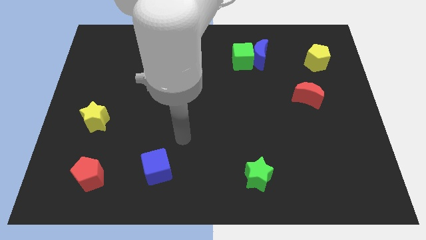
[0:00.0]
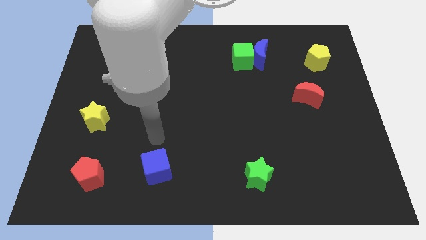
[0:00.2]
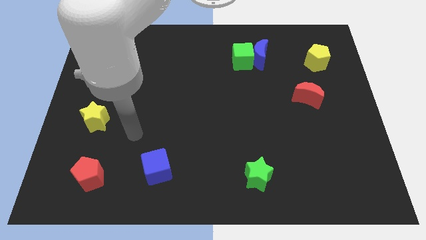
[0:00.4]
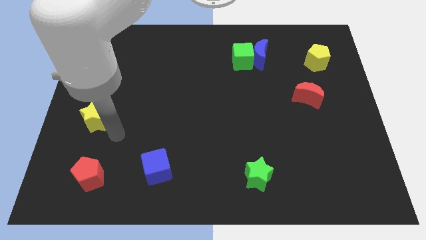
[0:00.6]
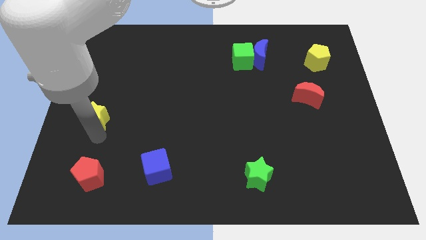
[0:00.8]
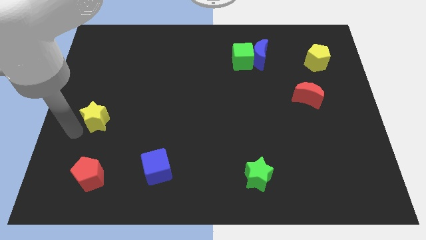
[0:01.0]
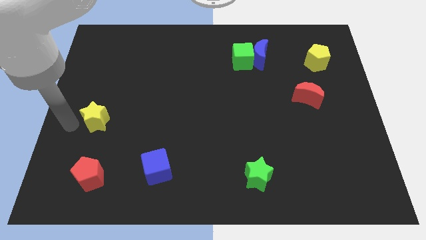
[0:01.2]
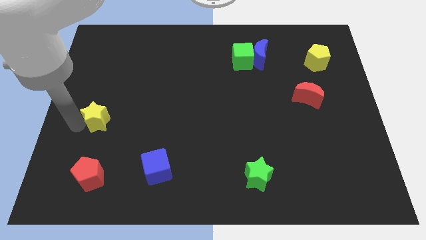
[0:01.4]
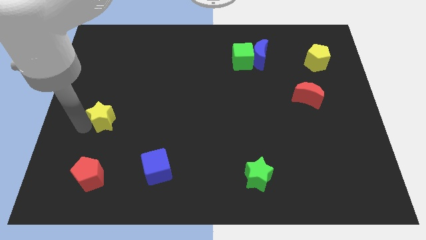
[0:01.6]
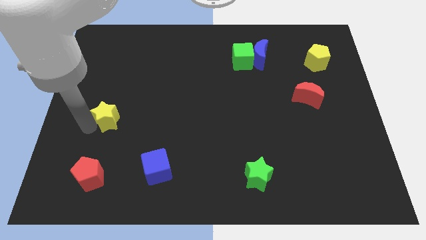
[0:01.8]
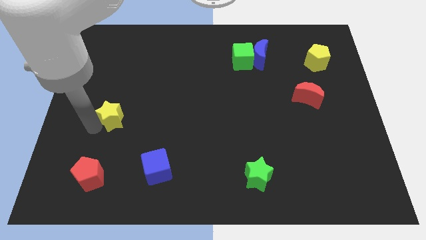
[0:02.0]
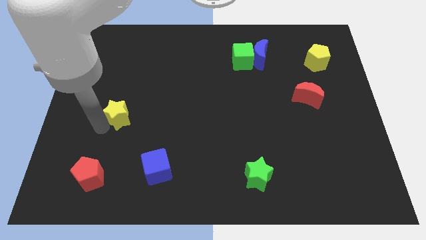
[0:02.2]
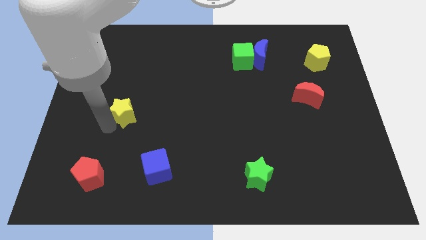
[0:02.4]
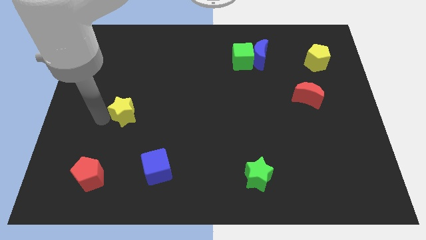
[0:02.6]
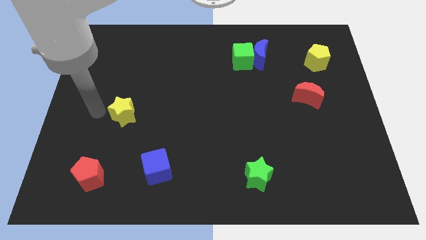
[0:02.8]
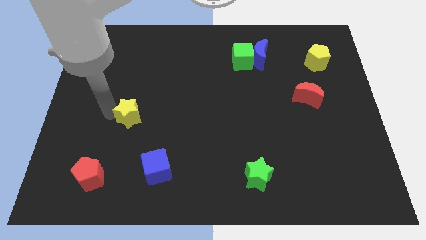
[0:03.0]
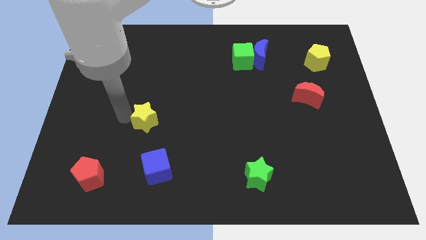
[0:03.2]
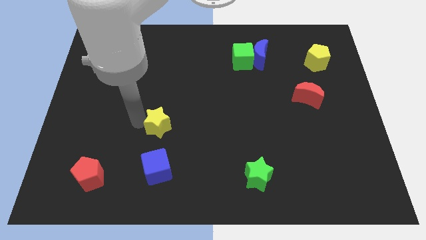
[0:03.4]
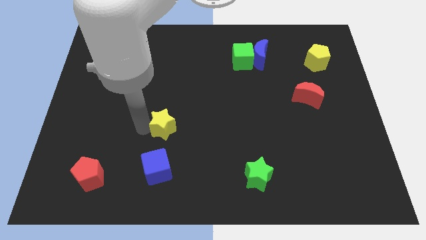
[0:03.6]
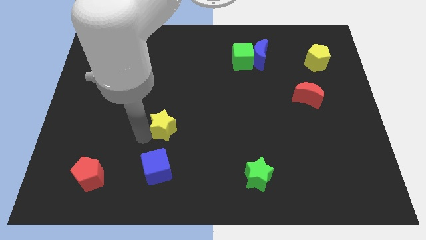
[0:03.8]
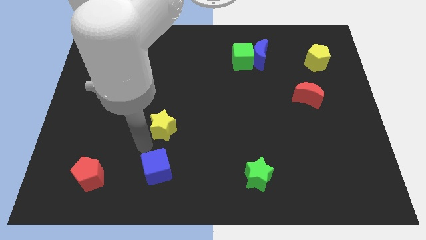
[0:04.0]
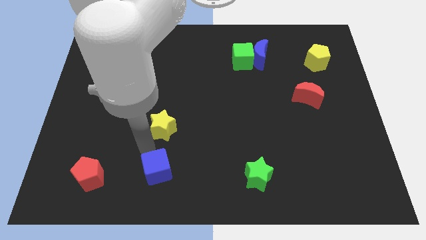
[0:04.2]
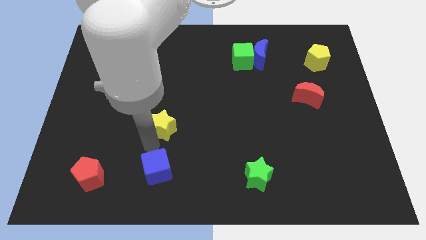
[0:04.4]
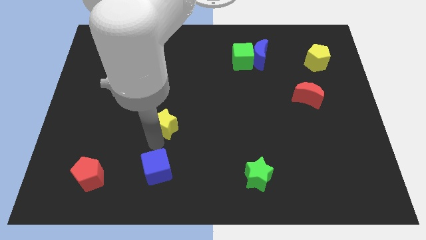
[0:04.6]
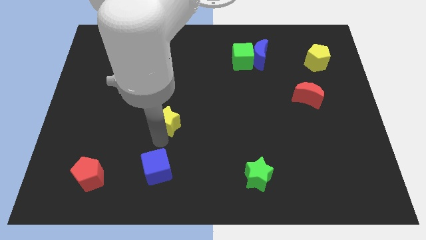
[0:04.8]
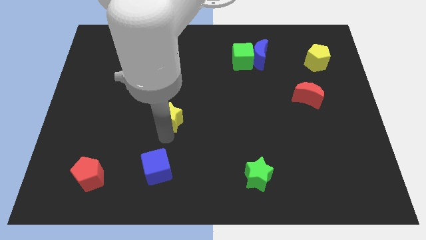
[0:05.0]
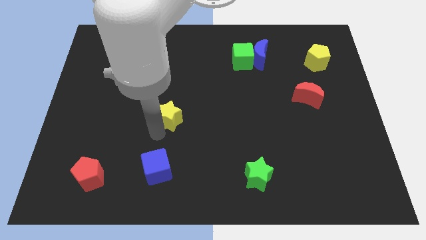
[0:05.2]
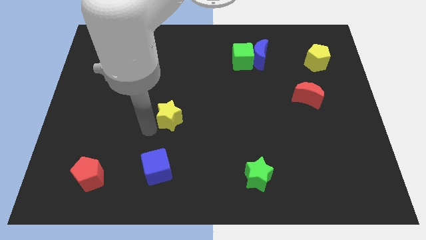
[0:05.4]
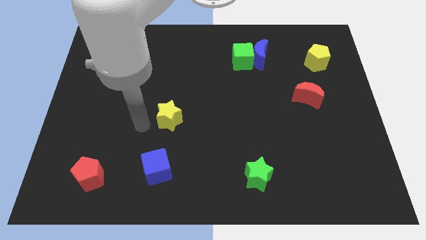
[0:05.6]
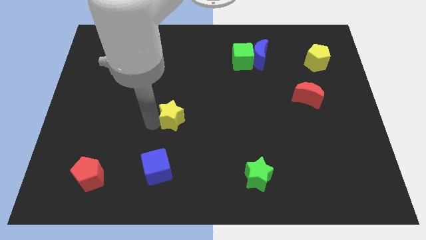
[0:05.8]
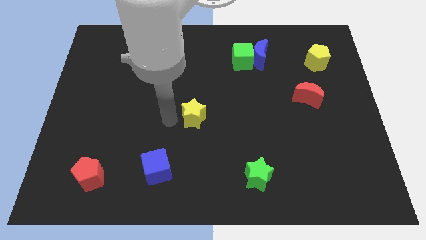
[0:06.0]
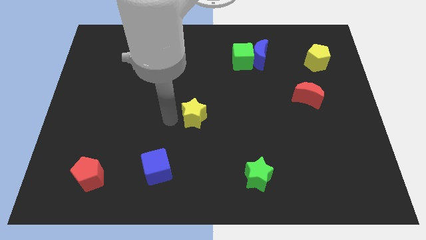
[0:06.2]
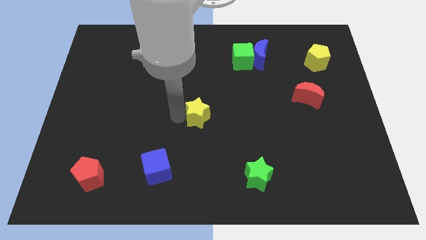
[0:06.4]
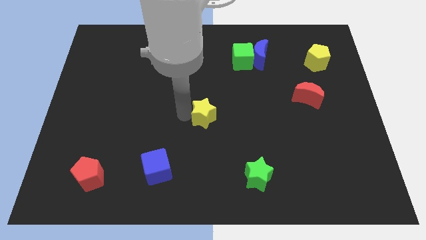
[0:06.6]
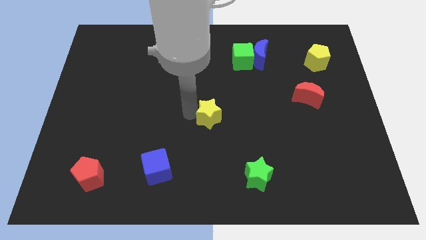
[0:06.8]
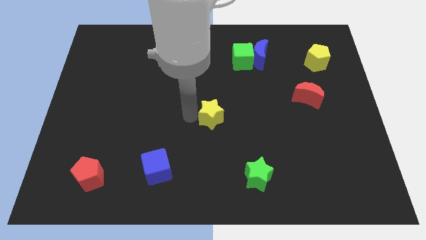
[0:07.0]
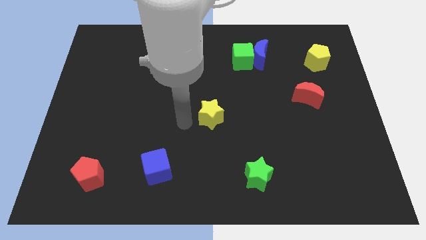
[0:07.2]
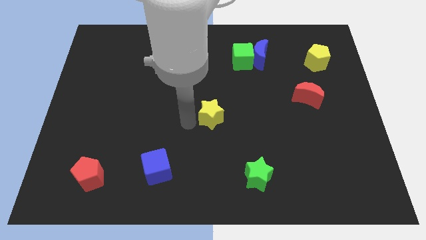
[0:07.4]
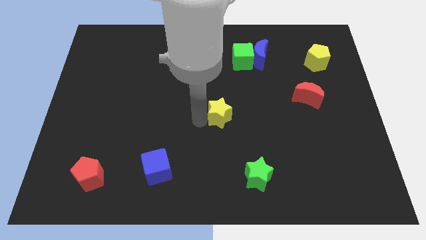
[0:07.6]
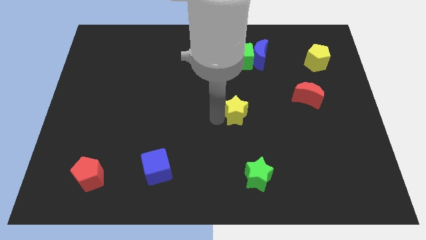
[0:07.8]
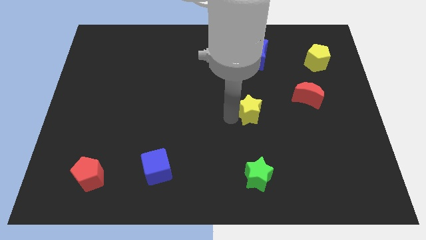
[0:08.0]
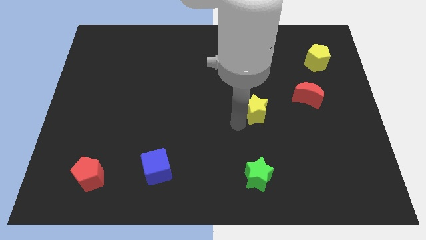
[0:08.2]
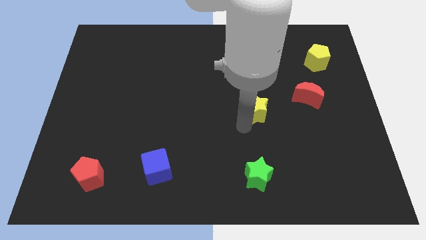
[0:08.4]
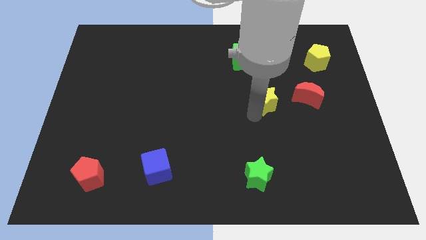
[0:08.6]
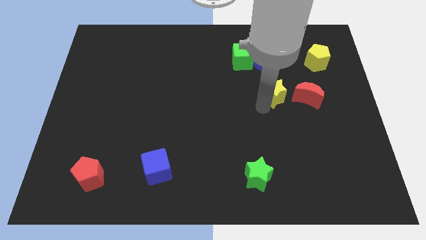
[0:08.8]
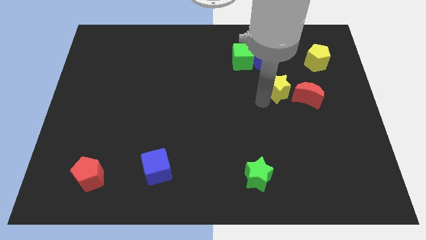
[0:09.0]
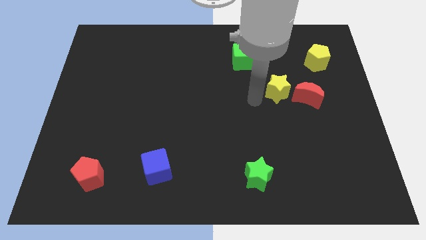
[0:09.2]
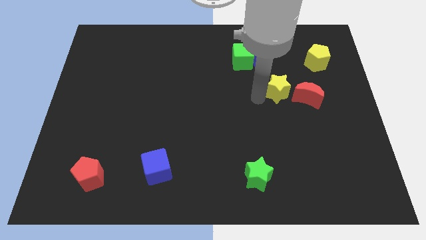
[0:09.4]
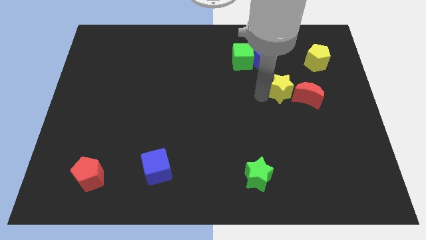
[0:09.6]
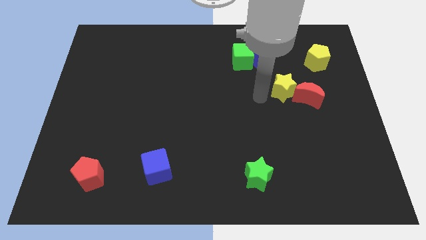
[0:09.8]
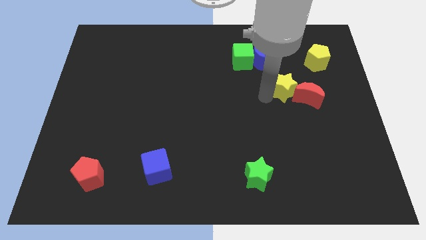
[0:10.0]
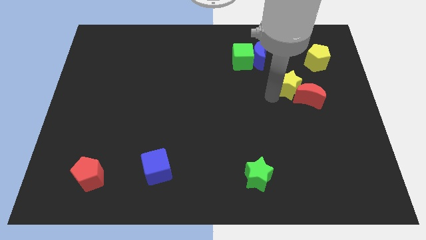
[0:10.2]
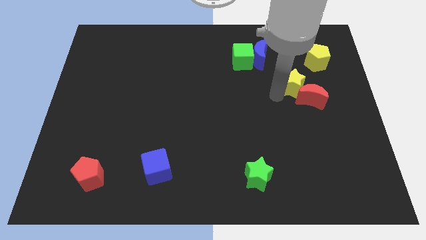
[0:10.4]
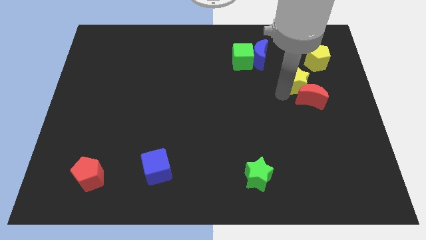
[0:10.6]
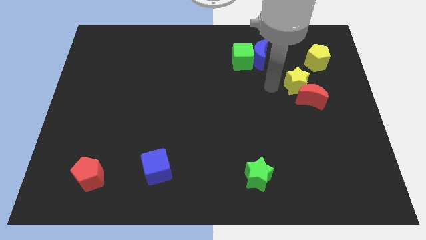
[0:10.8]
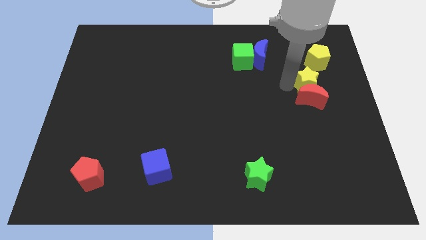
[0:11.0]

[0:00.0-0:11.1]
slide the yellow star diagonally up and to the right of the red moon

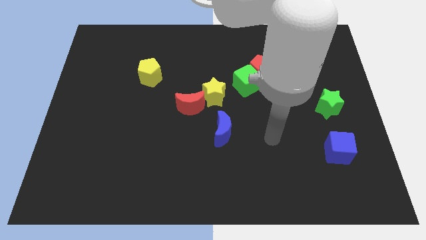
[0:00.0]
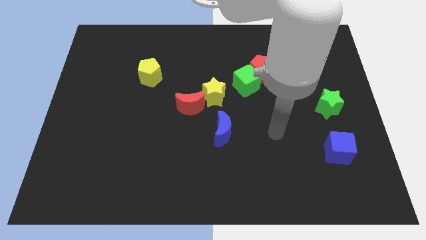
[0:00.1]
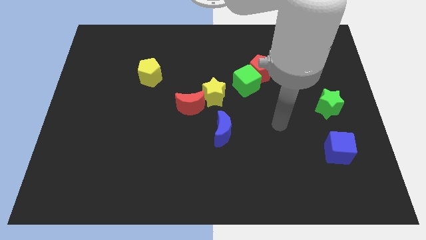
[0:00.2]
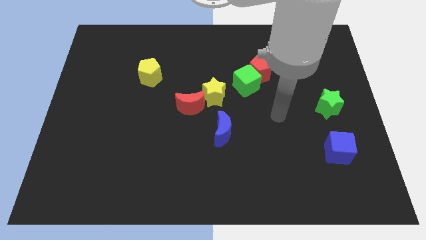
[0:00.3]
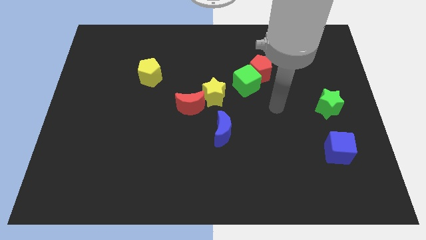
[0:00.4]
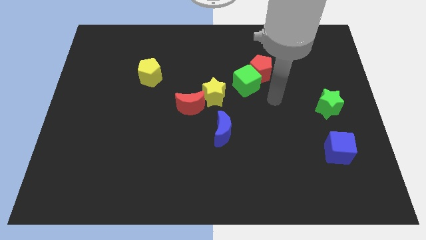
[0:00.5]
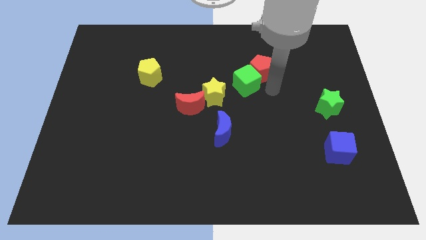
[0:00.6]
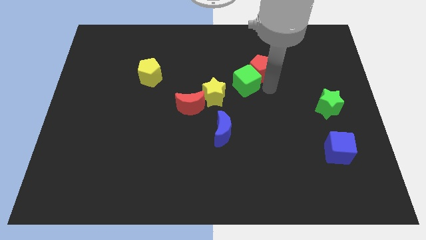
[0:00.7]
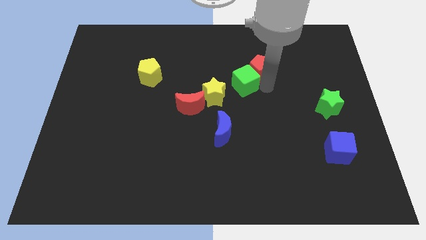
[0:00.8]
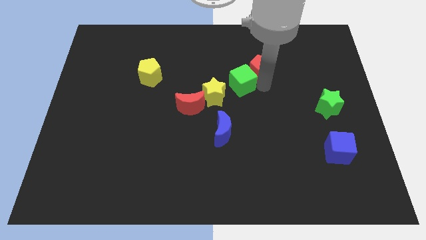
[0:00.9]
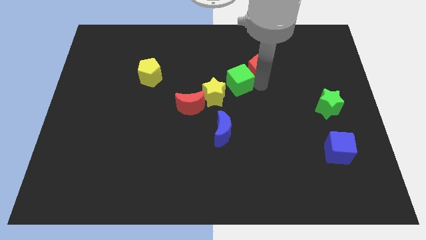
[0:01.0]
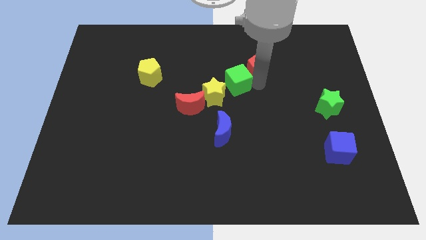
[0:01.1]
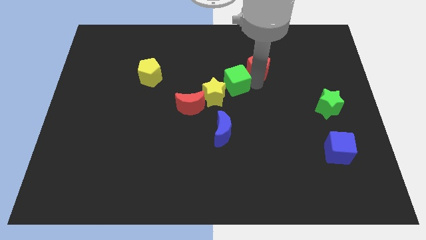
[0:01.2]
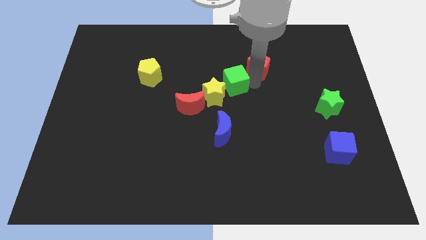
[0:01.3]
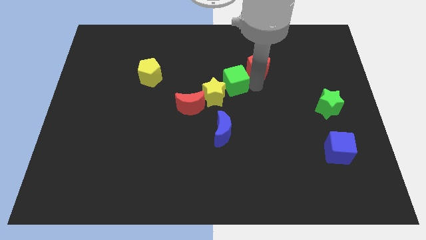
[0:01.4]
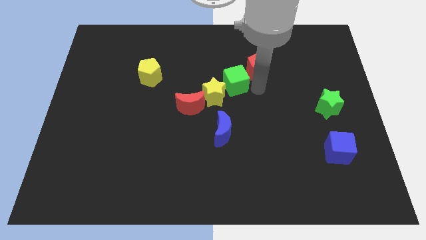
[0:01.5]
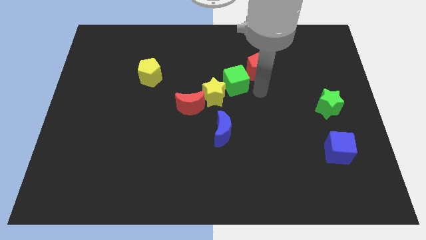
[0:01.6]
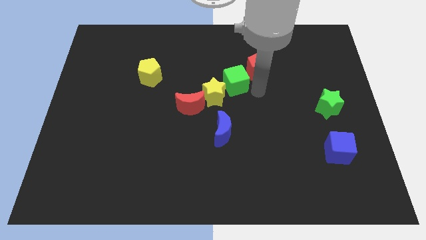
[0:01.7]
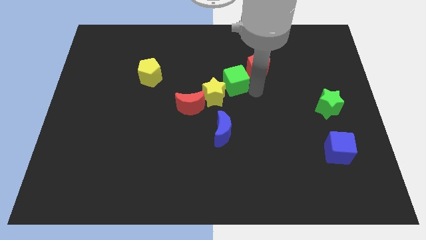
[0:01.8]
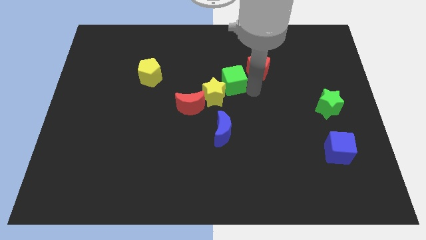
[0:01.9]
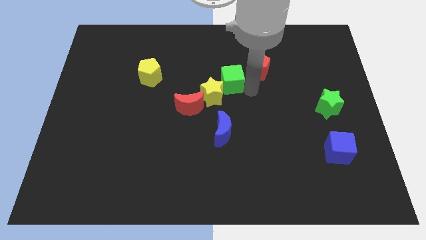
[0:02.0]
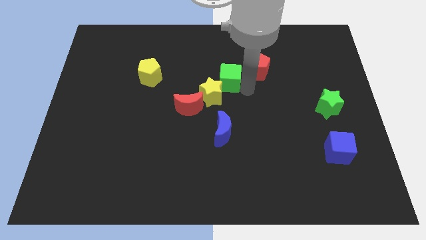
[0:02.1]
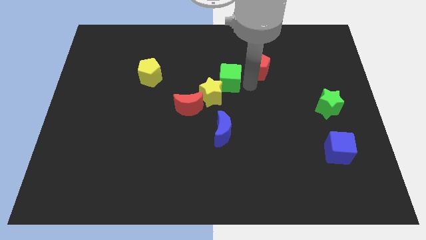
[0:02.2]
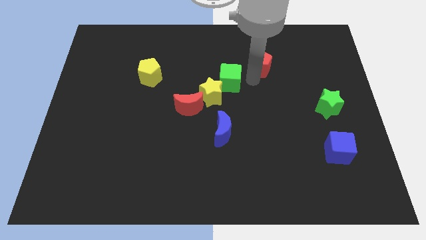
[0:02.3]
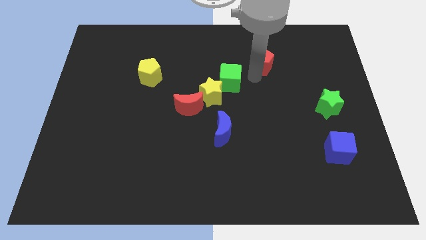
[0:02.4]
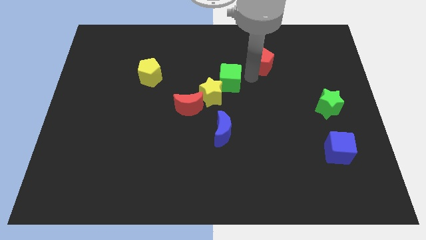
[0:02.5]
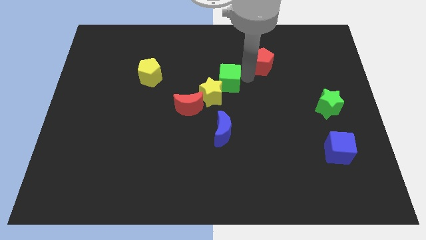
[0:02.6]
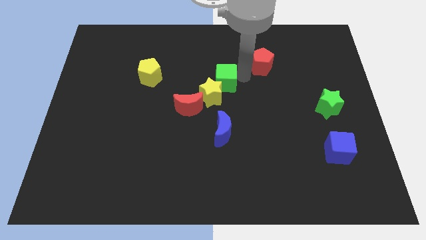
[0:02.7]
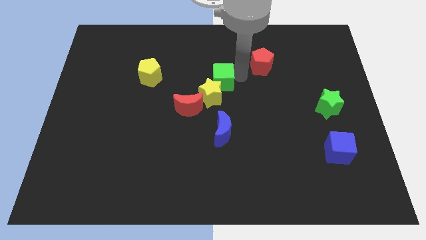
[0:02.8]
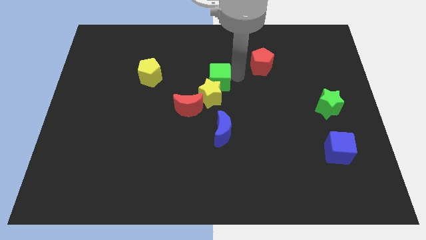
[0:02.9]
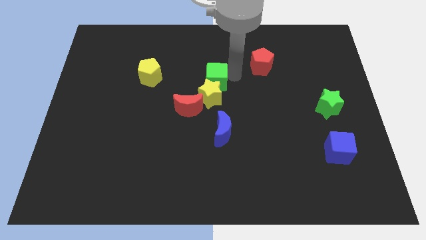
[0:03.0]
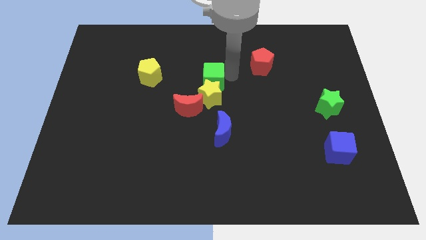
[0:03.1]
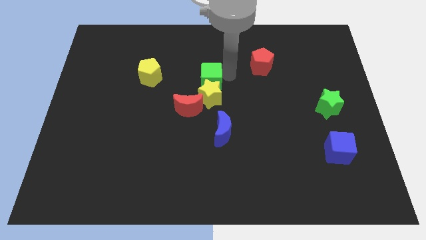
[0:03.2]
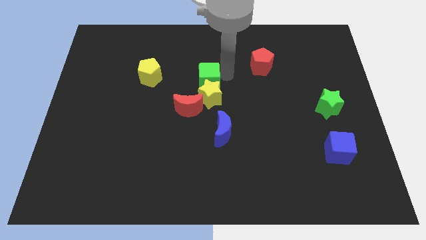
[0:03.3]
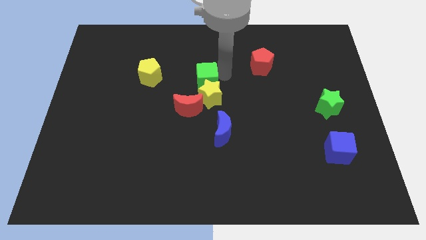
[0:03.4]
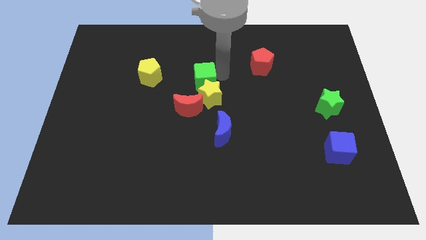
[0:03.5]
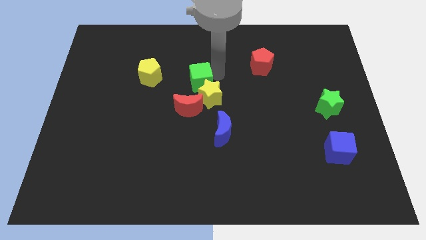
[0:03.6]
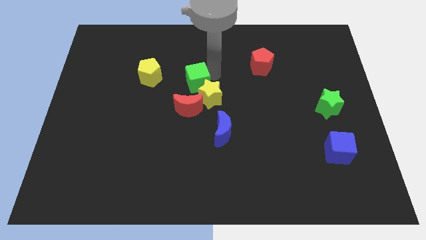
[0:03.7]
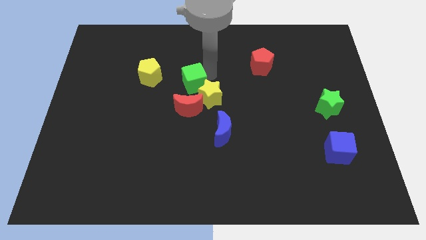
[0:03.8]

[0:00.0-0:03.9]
put the green cube to the left side of the yellow star
